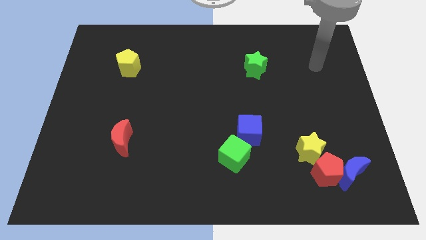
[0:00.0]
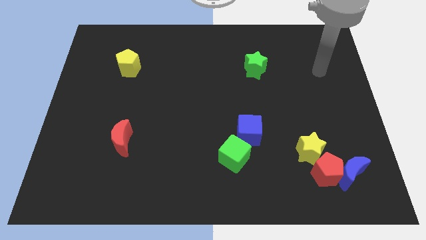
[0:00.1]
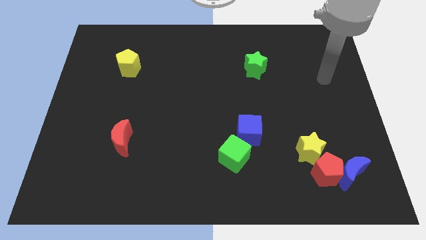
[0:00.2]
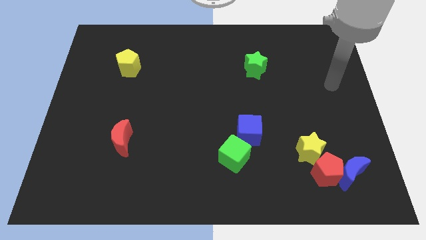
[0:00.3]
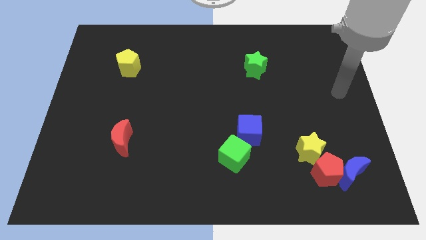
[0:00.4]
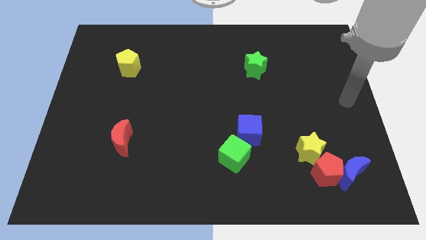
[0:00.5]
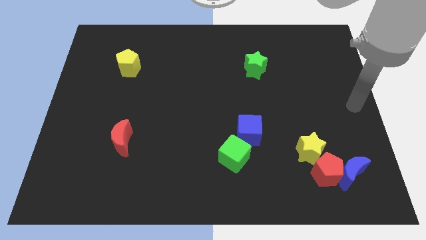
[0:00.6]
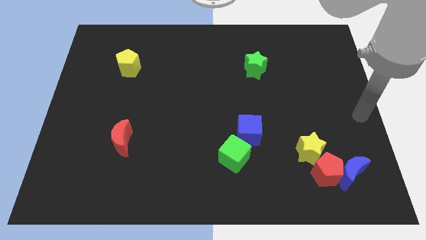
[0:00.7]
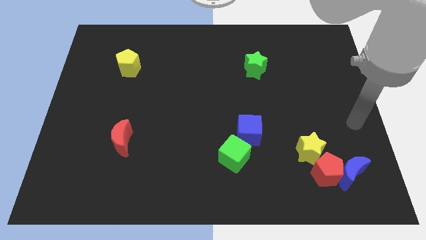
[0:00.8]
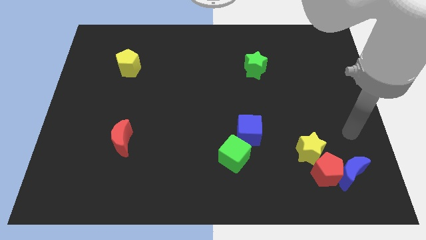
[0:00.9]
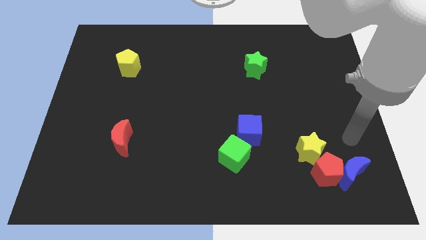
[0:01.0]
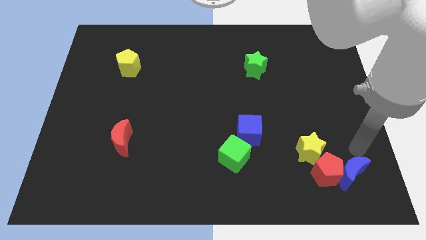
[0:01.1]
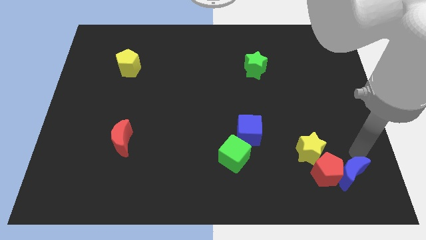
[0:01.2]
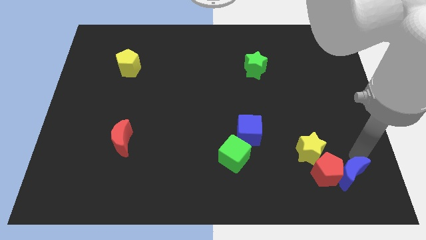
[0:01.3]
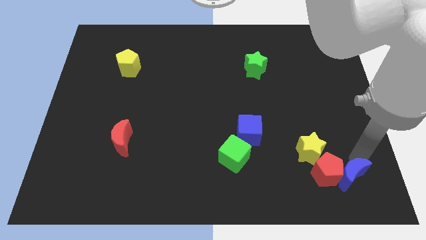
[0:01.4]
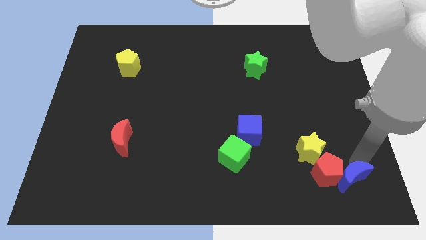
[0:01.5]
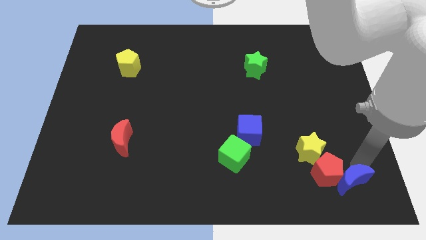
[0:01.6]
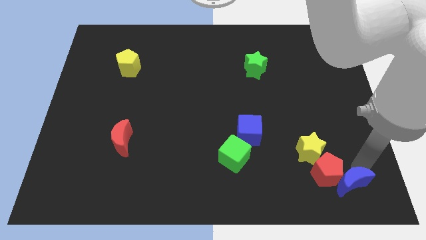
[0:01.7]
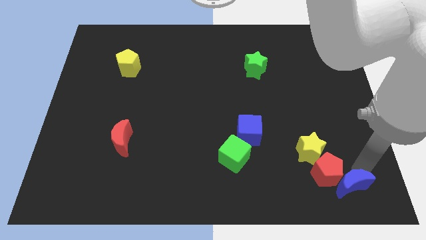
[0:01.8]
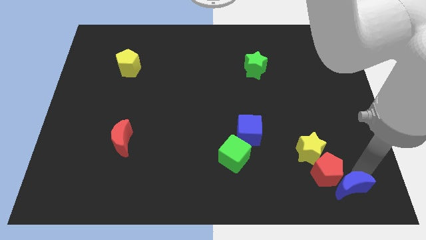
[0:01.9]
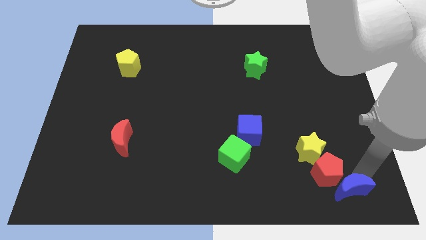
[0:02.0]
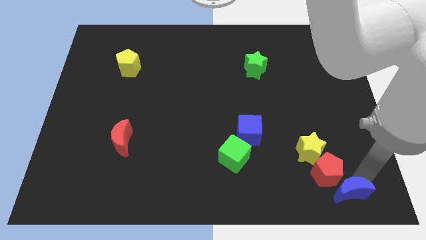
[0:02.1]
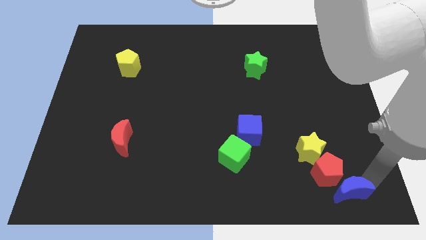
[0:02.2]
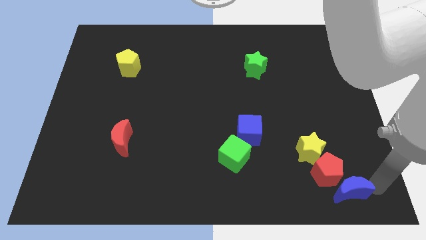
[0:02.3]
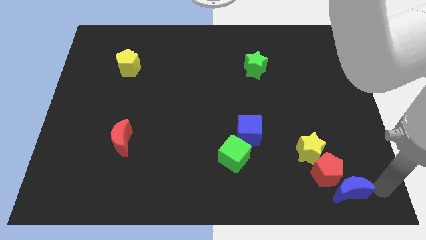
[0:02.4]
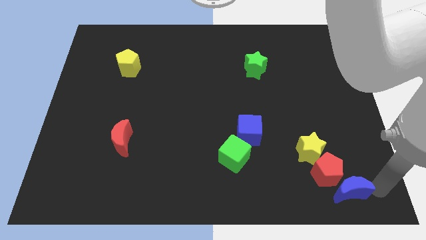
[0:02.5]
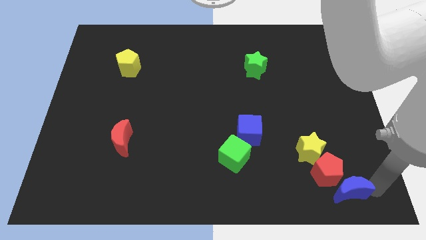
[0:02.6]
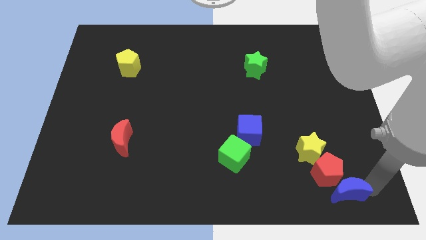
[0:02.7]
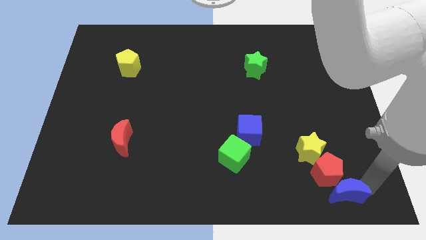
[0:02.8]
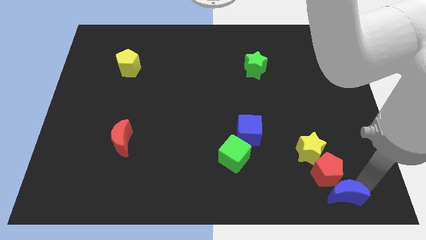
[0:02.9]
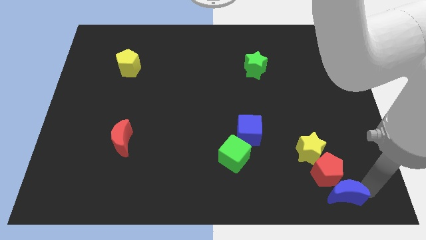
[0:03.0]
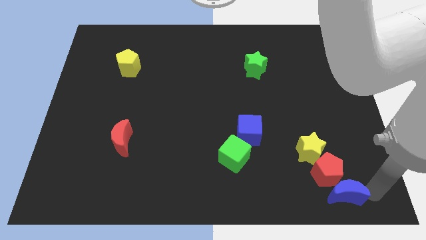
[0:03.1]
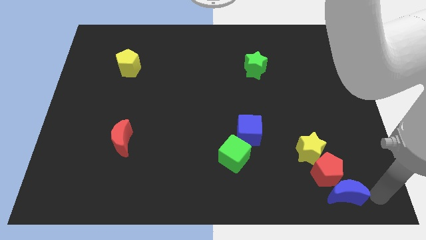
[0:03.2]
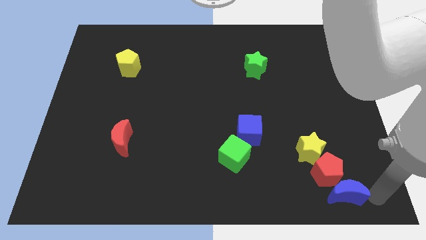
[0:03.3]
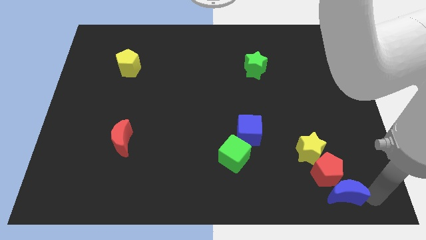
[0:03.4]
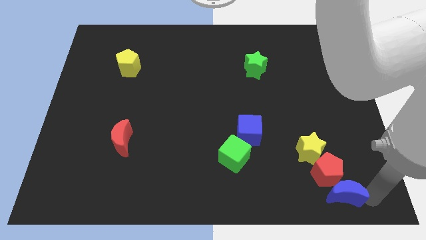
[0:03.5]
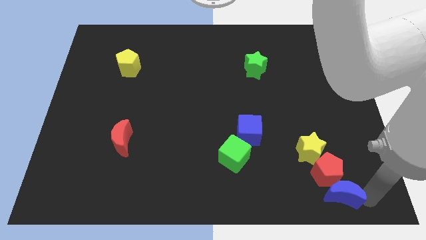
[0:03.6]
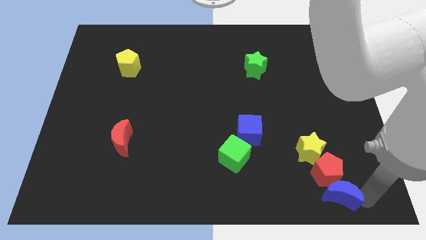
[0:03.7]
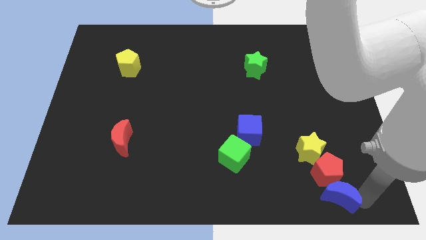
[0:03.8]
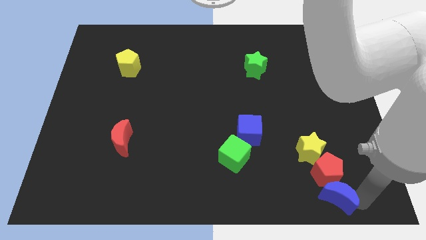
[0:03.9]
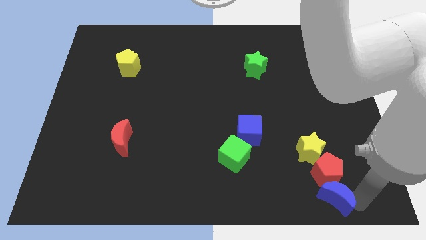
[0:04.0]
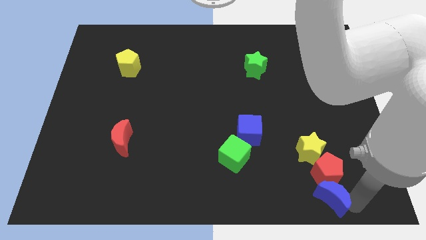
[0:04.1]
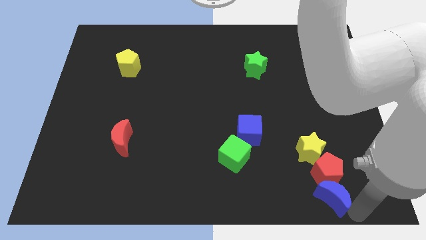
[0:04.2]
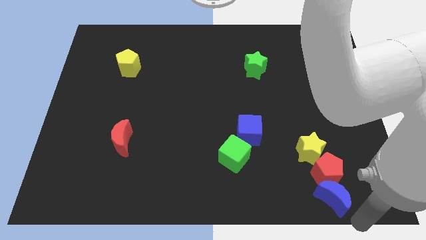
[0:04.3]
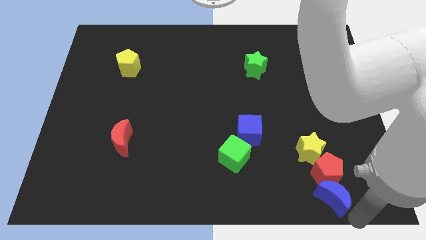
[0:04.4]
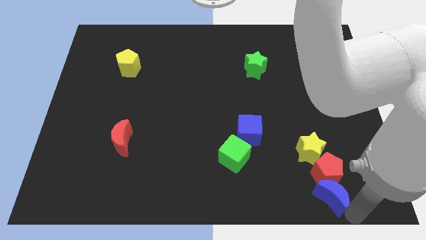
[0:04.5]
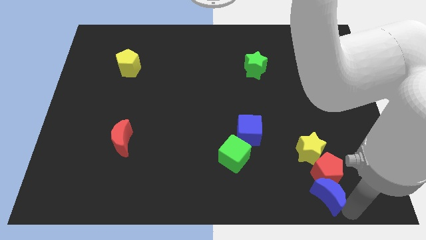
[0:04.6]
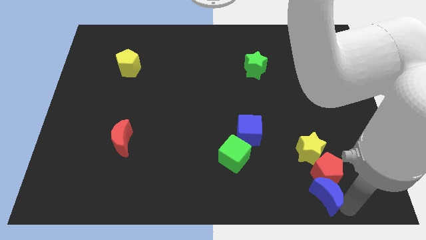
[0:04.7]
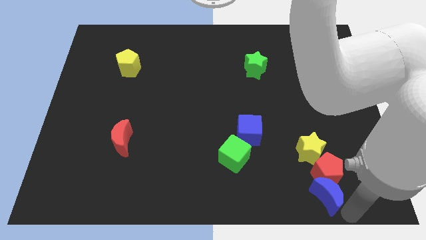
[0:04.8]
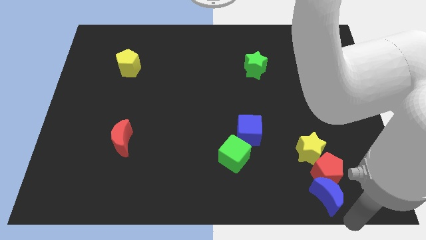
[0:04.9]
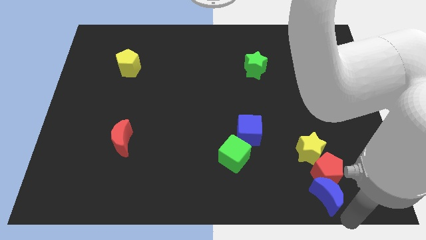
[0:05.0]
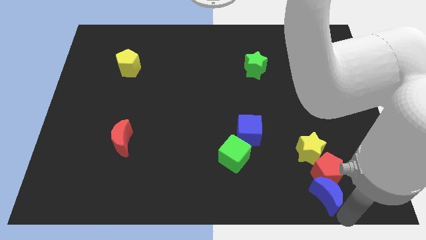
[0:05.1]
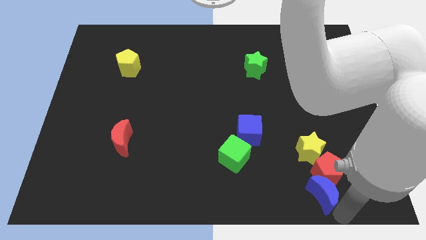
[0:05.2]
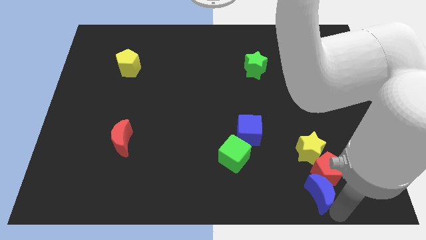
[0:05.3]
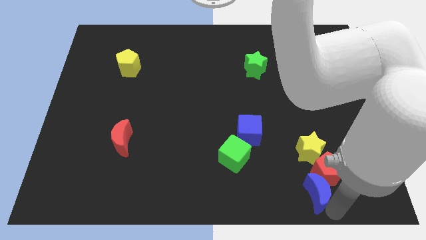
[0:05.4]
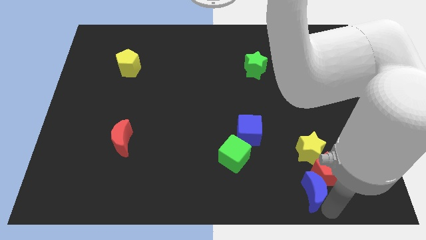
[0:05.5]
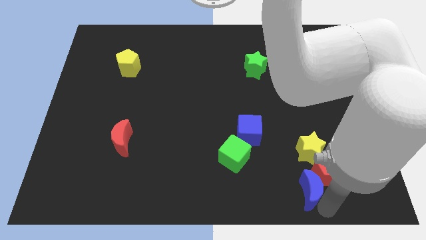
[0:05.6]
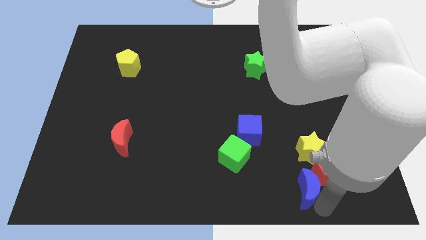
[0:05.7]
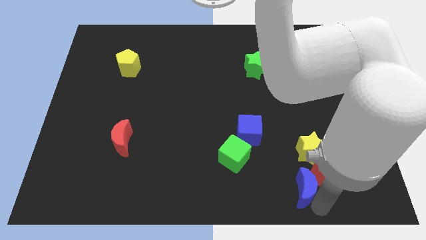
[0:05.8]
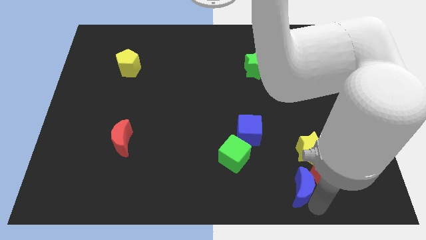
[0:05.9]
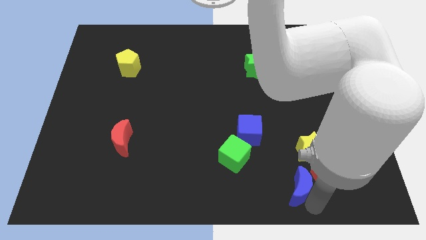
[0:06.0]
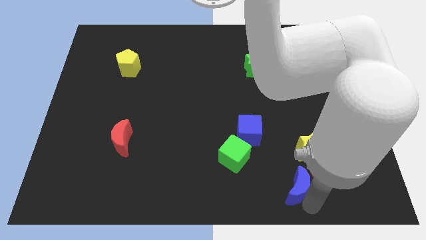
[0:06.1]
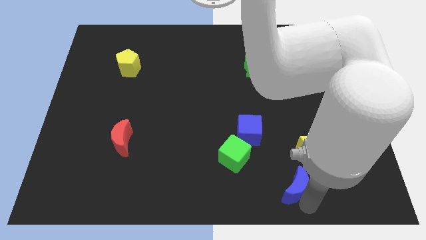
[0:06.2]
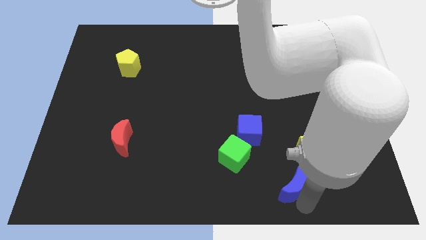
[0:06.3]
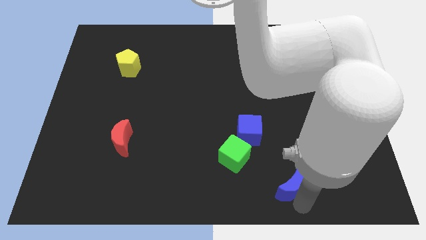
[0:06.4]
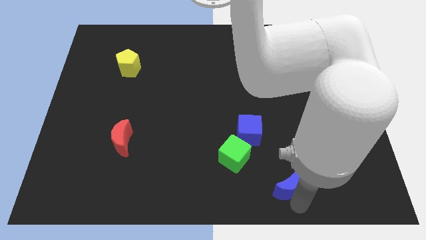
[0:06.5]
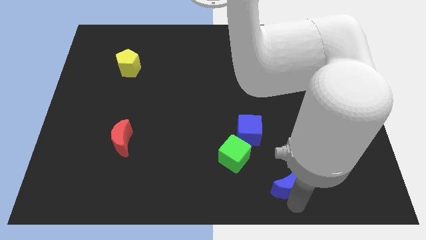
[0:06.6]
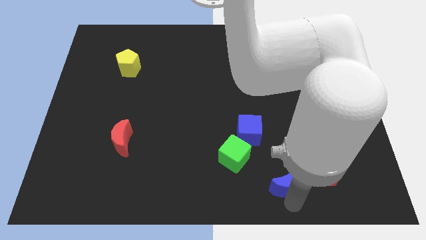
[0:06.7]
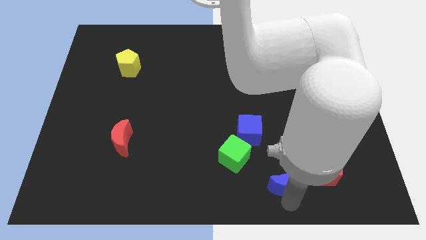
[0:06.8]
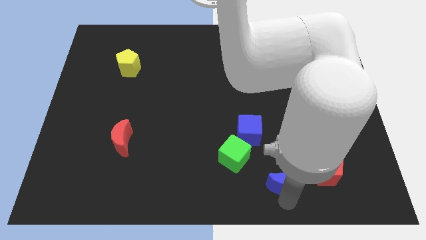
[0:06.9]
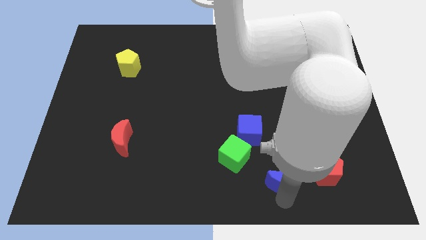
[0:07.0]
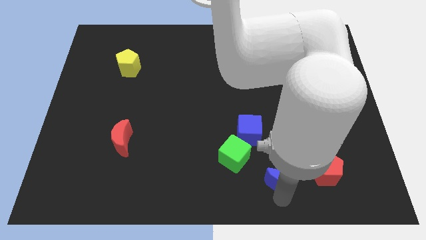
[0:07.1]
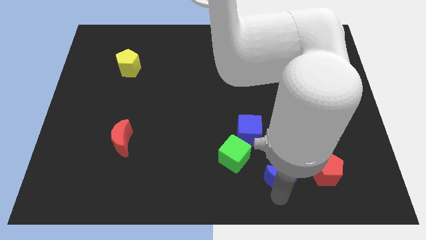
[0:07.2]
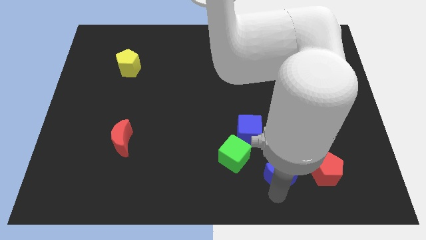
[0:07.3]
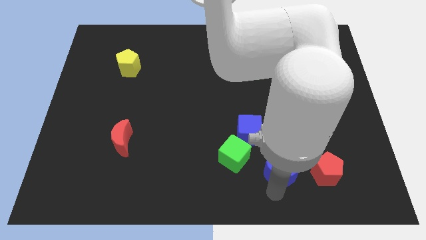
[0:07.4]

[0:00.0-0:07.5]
push the blue moon to the right side of the green cube

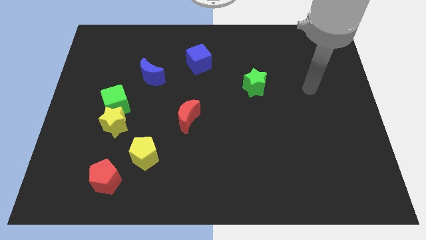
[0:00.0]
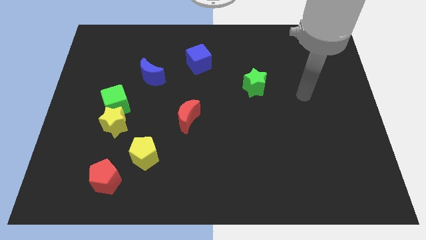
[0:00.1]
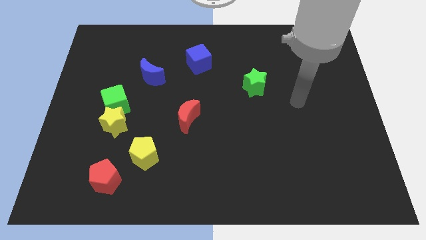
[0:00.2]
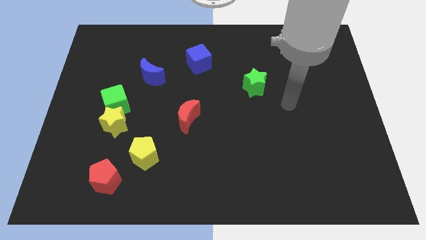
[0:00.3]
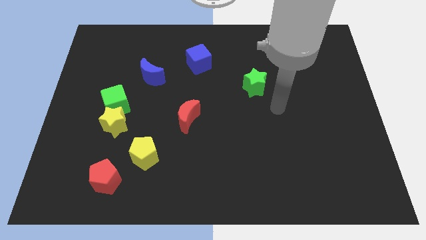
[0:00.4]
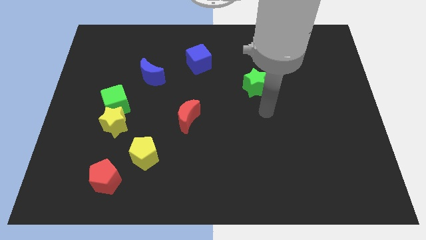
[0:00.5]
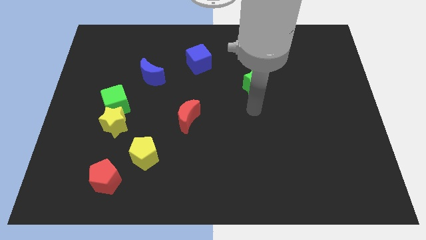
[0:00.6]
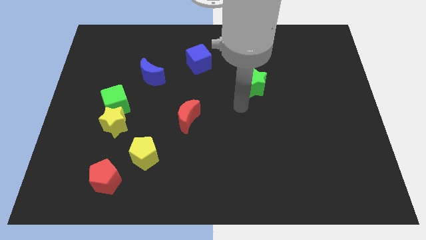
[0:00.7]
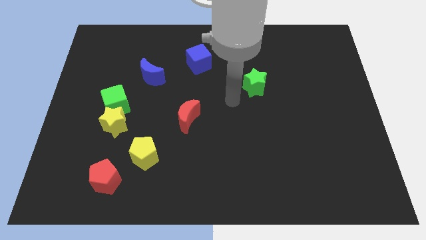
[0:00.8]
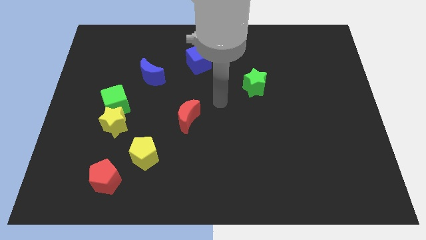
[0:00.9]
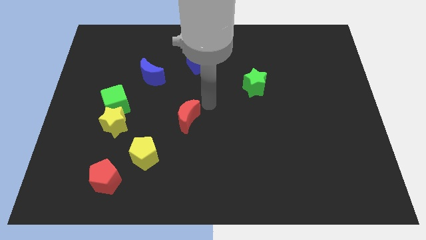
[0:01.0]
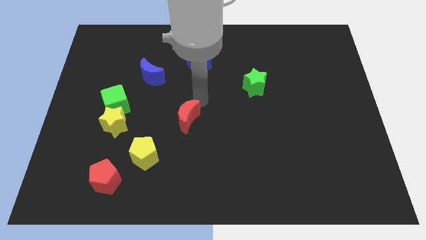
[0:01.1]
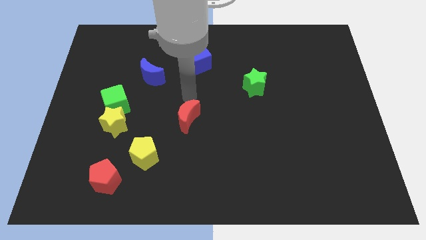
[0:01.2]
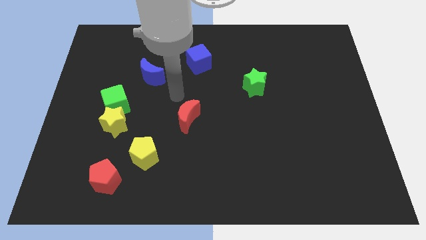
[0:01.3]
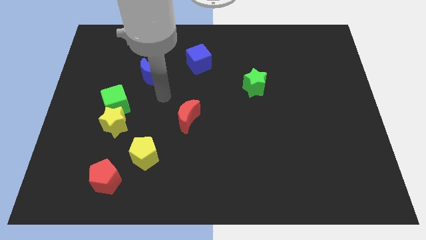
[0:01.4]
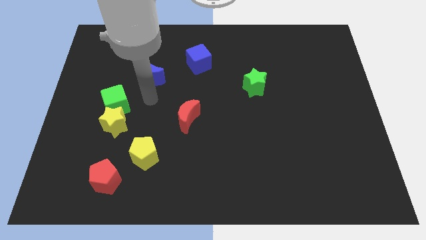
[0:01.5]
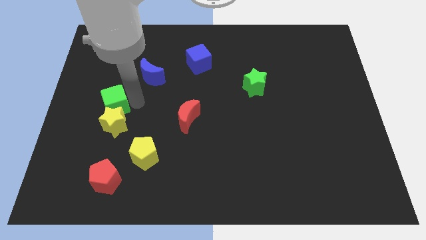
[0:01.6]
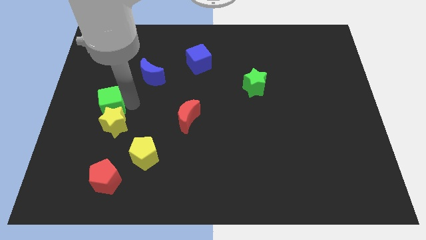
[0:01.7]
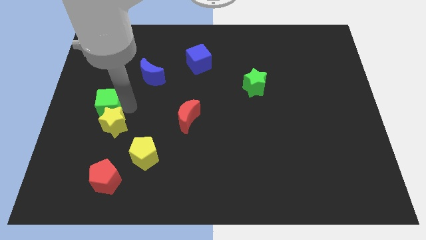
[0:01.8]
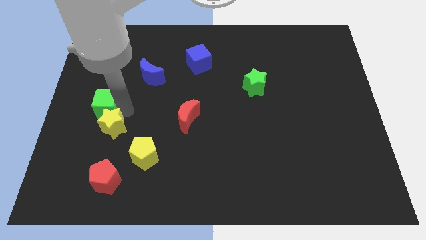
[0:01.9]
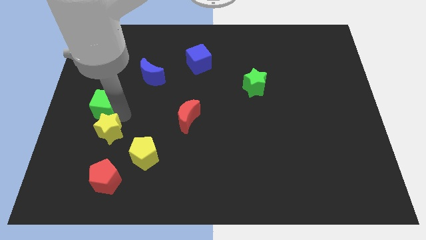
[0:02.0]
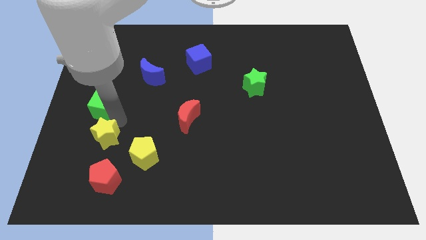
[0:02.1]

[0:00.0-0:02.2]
push the yellow star left of the yellow pentagon
